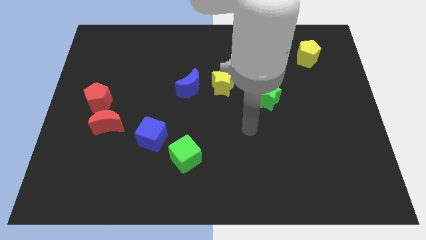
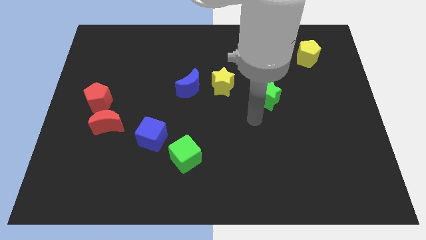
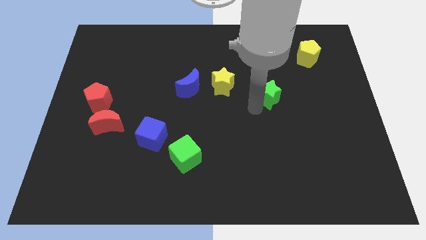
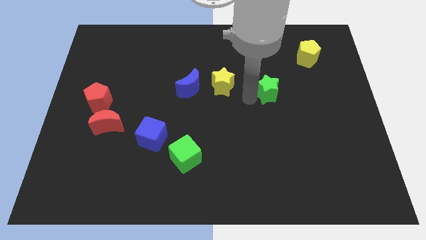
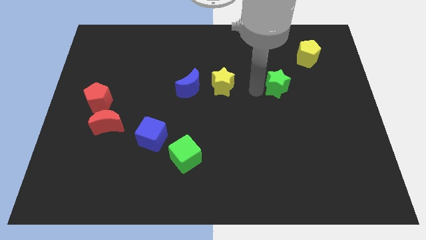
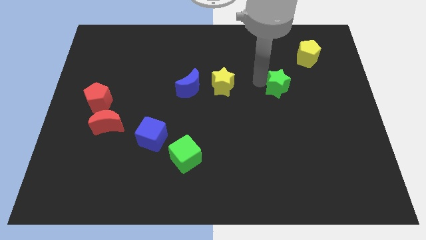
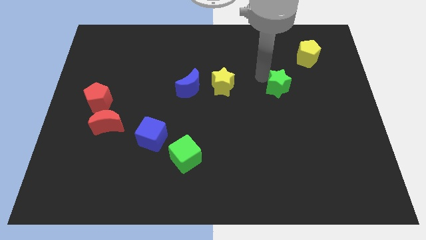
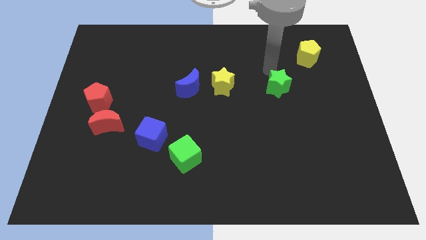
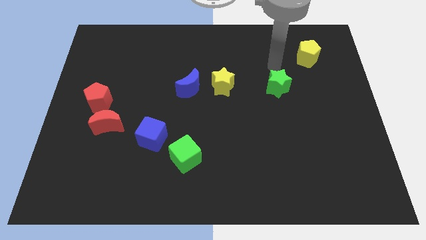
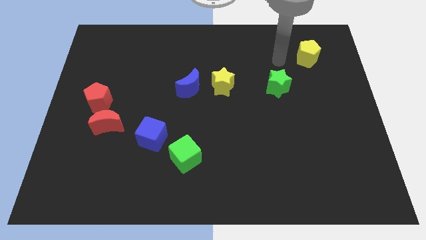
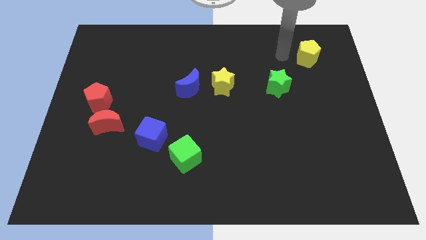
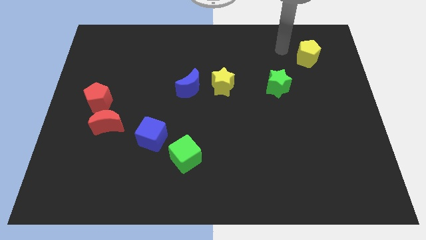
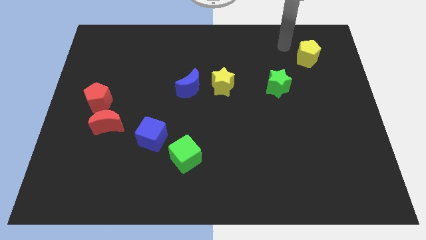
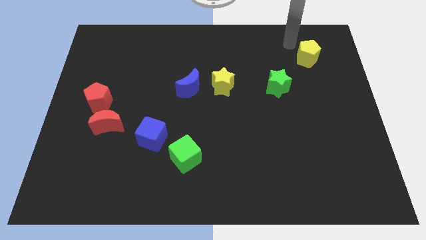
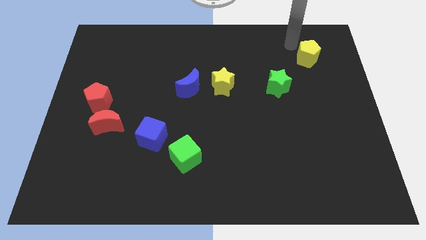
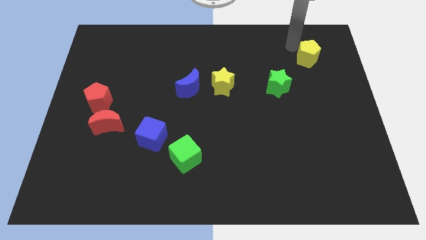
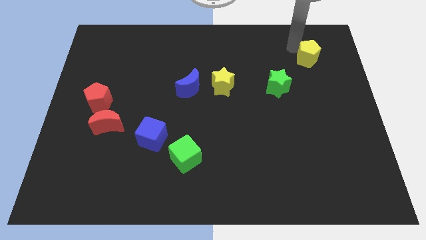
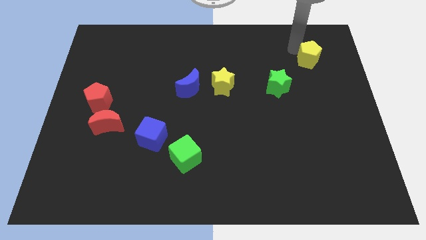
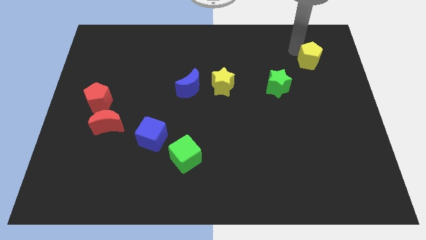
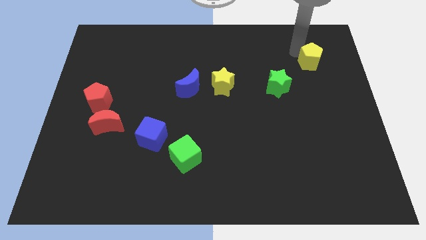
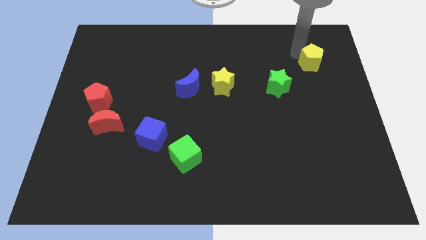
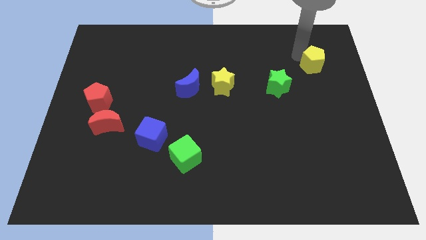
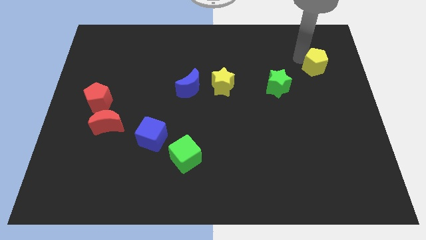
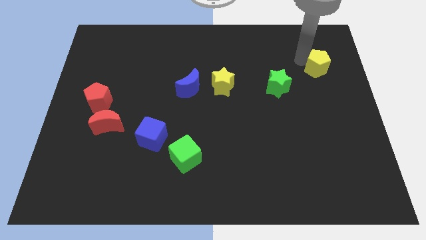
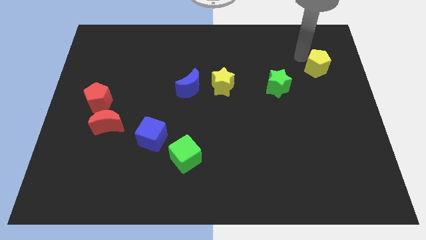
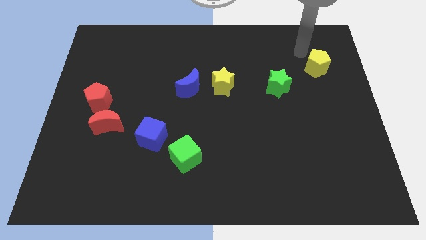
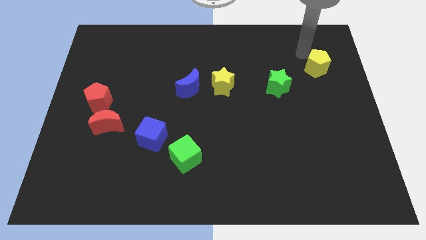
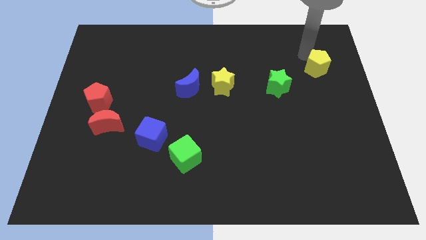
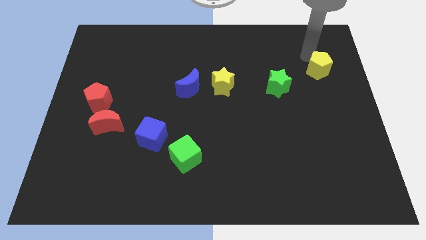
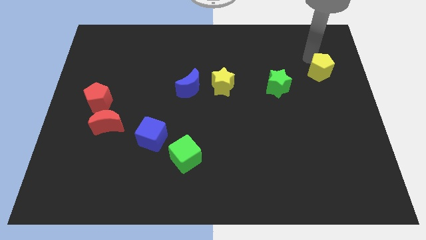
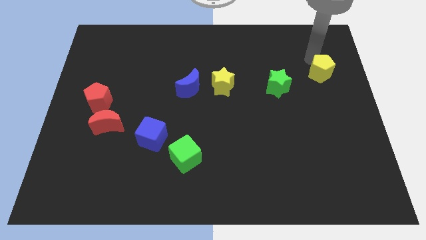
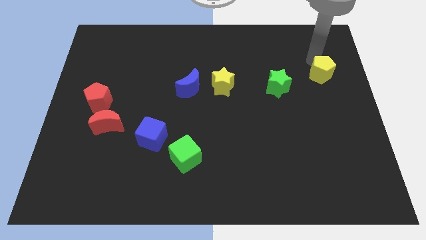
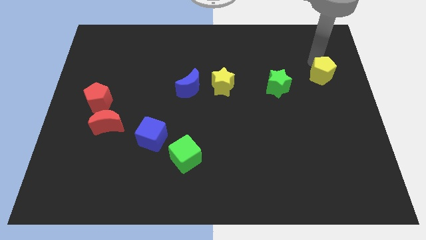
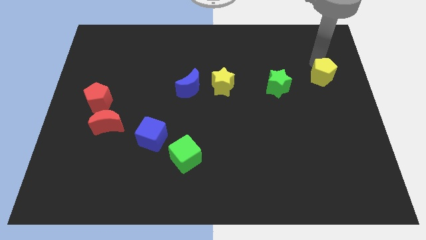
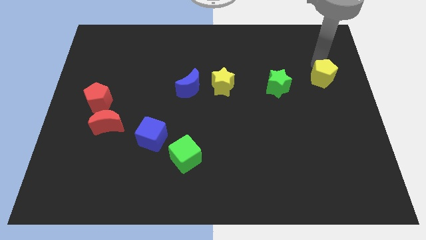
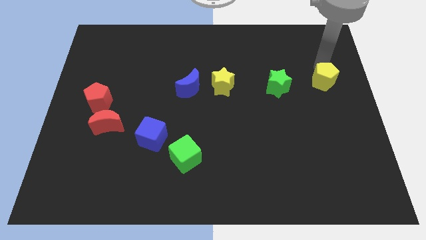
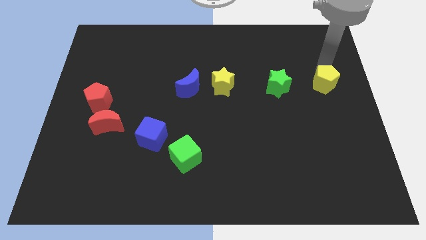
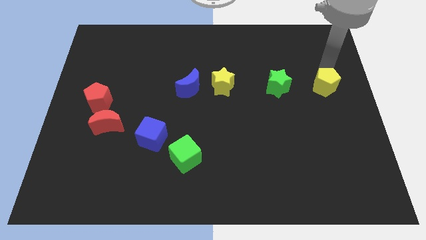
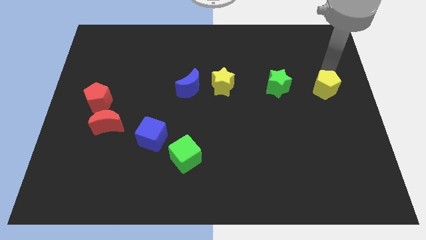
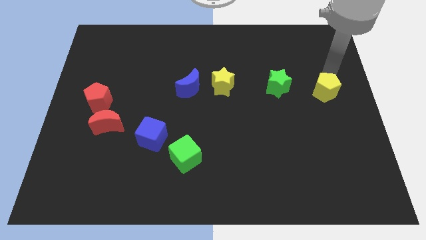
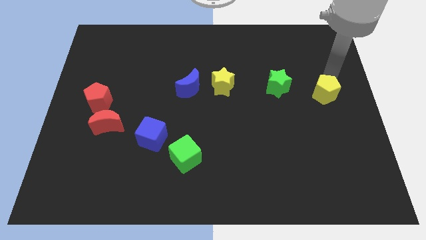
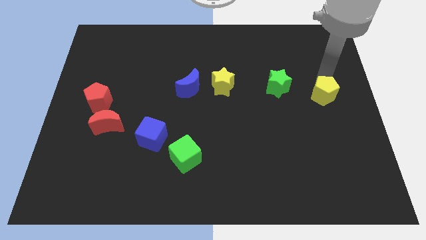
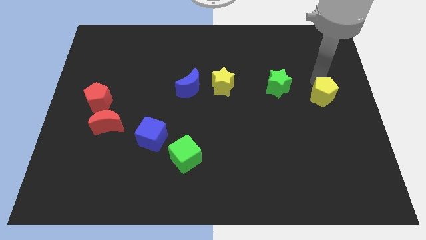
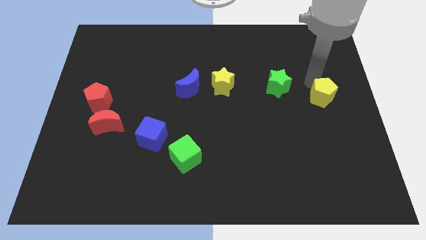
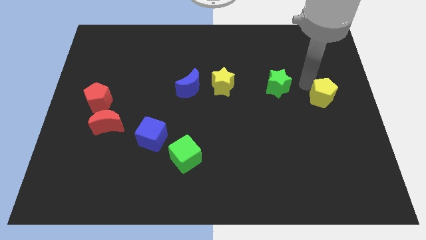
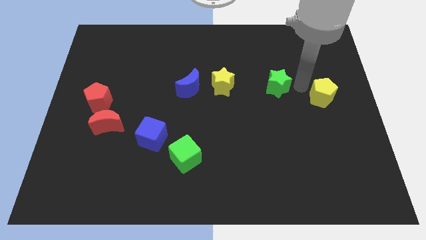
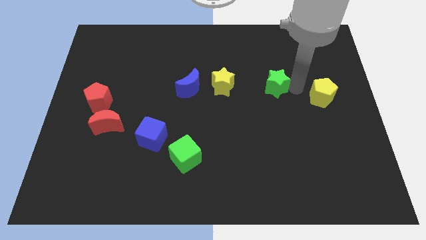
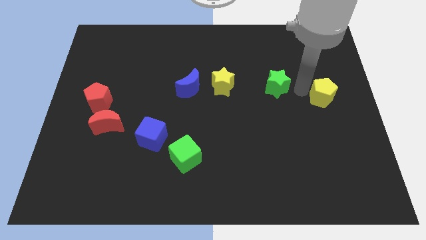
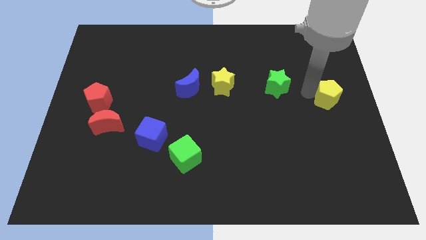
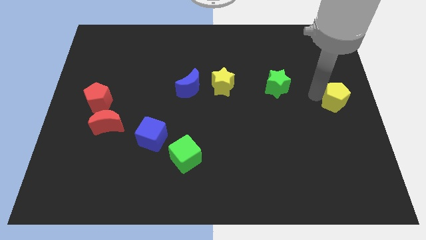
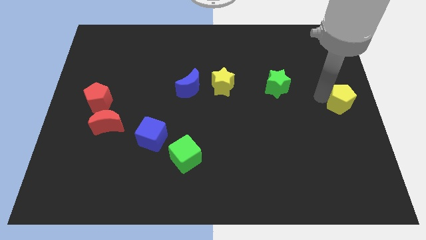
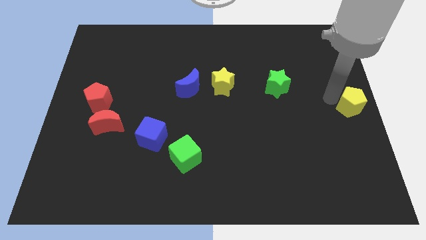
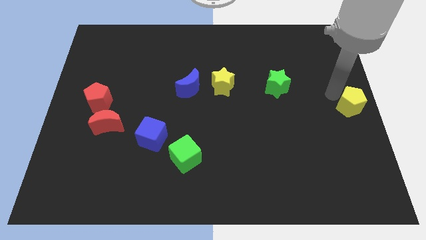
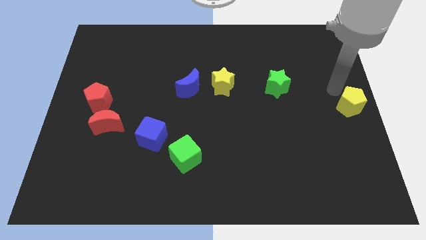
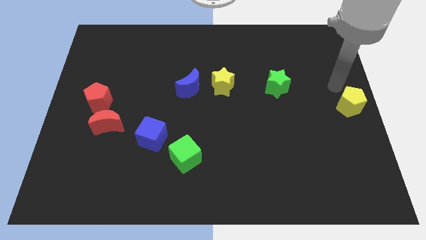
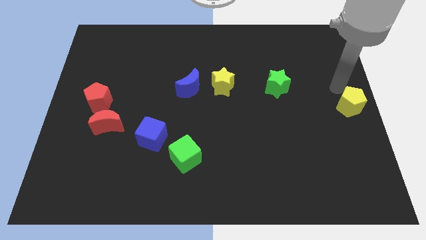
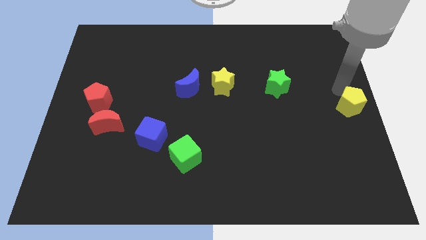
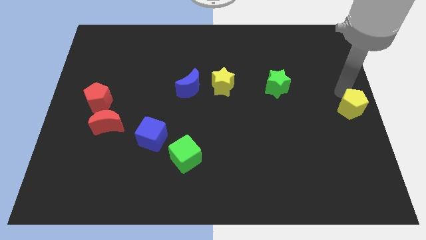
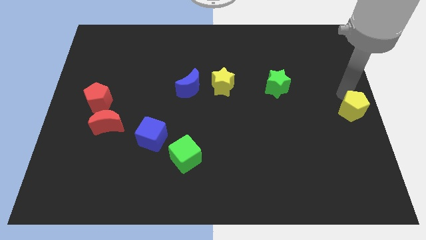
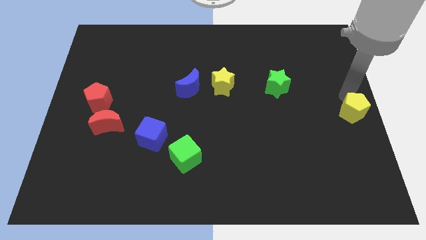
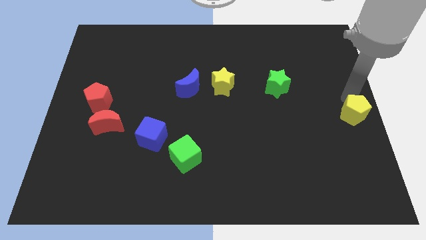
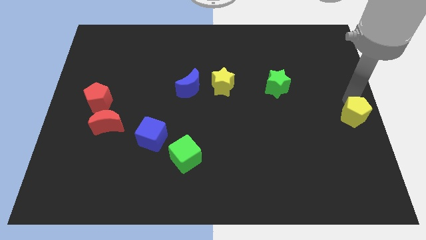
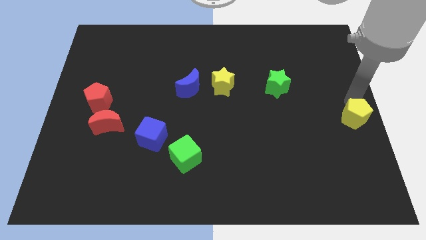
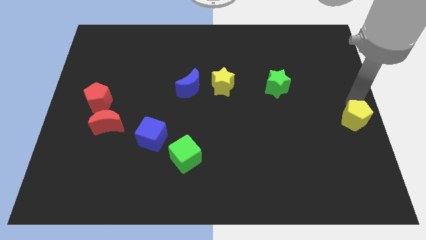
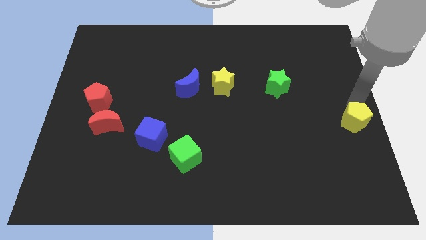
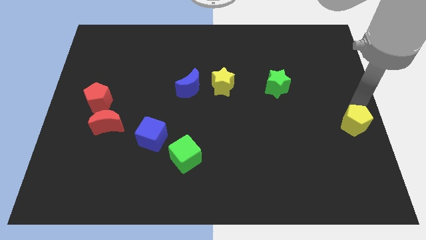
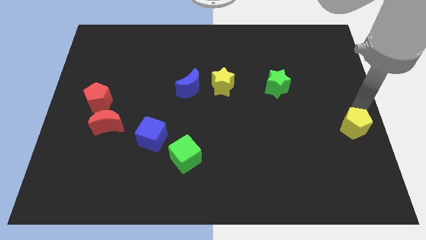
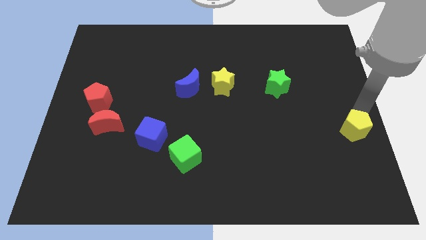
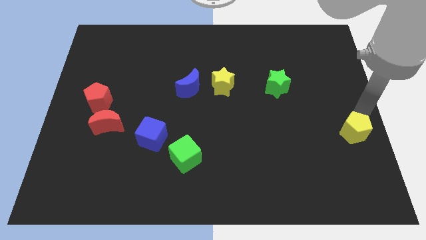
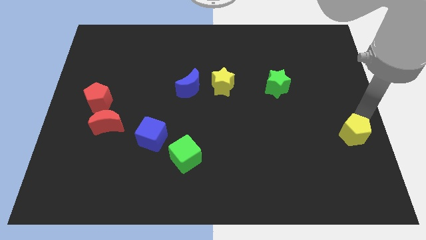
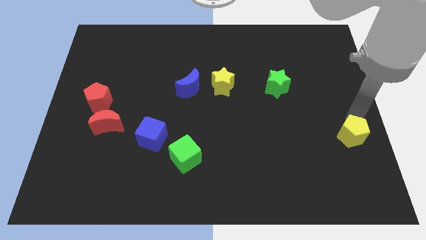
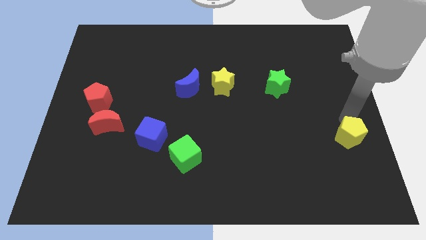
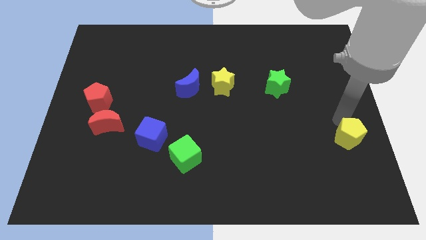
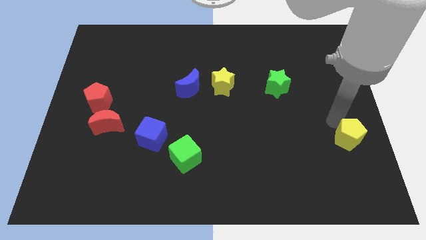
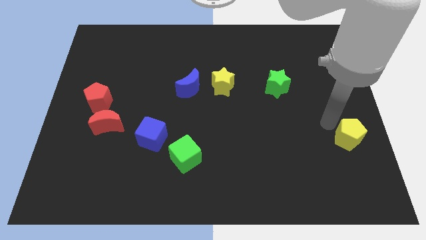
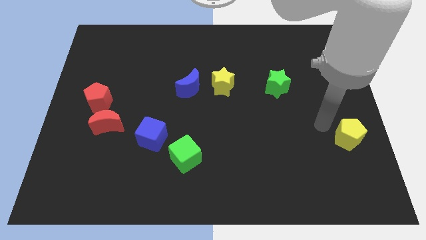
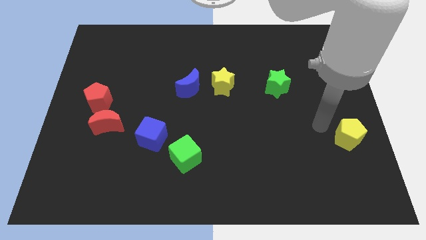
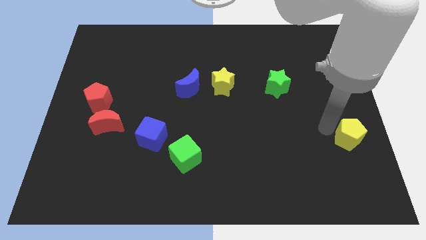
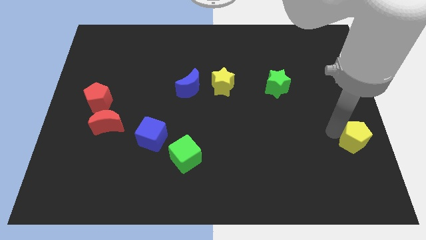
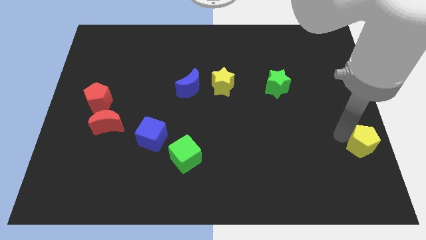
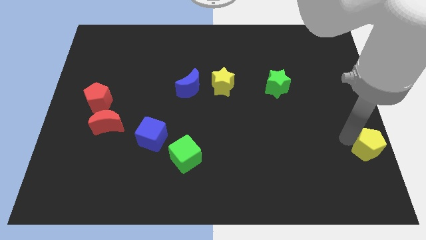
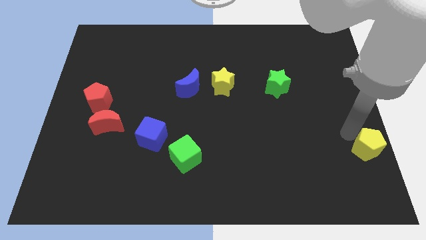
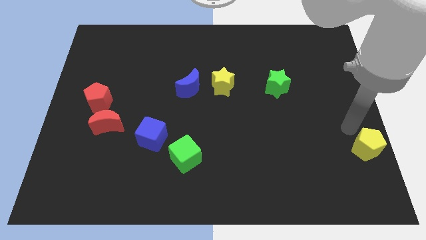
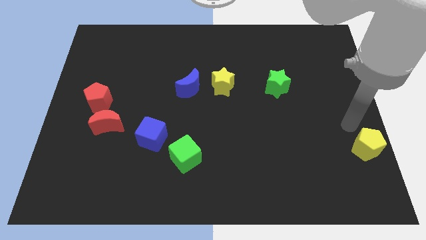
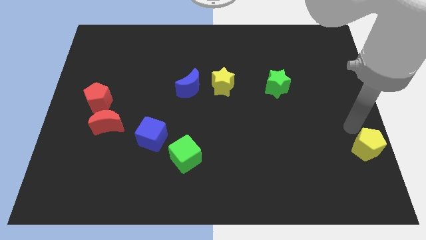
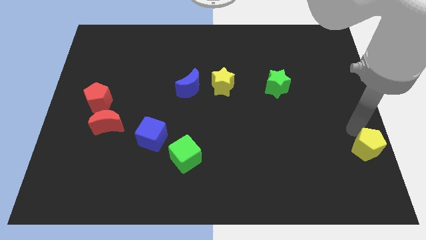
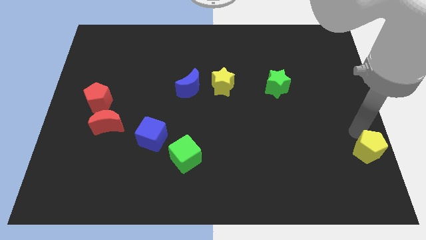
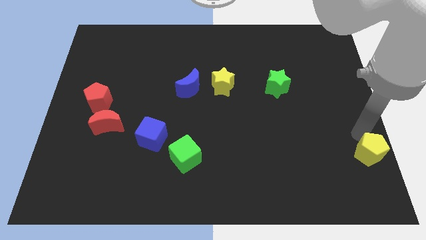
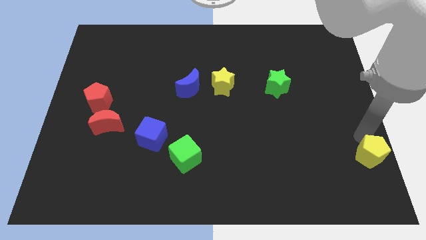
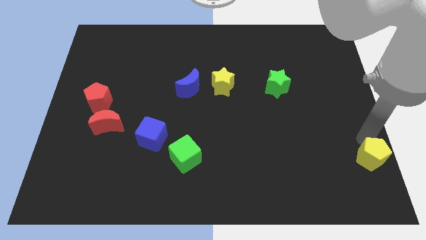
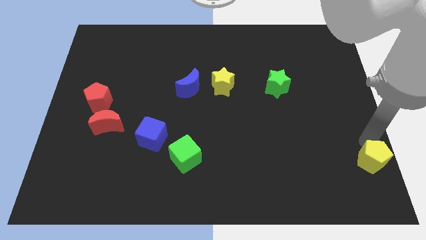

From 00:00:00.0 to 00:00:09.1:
put the yellow pentagon to the bottom right
